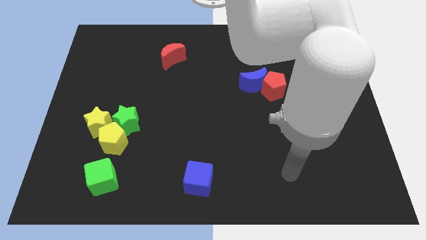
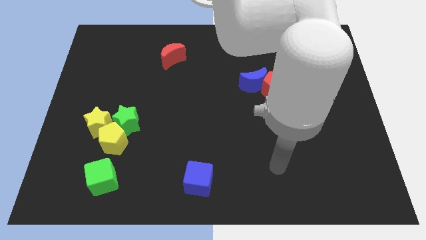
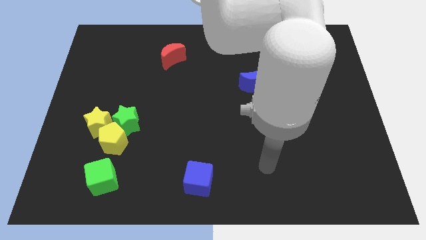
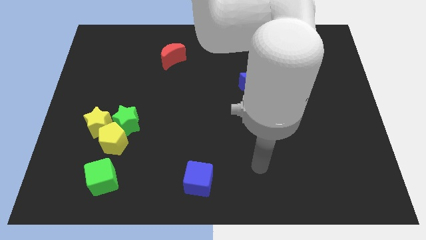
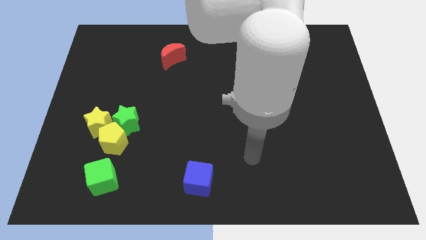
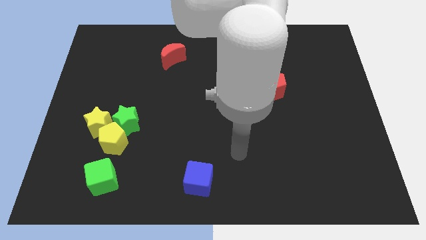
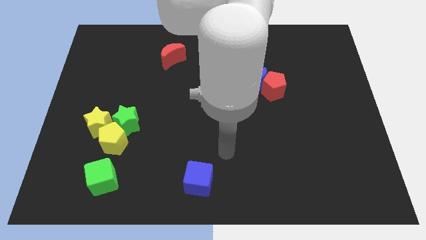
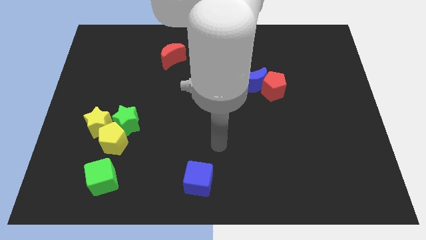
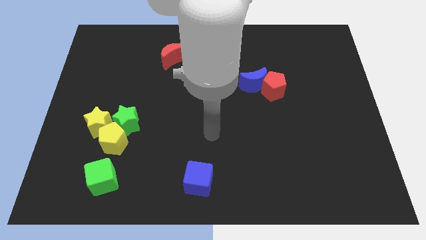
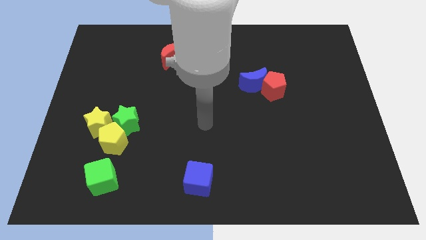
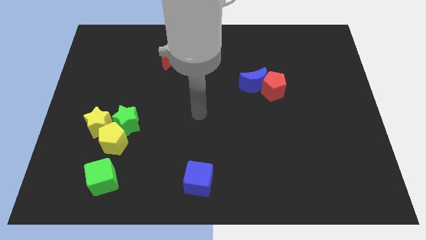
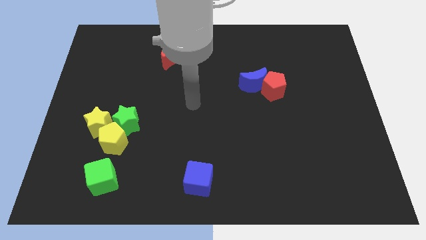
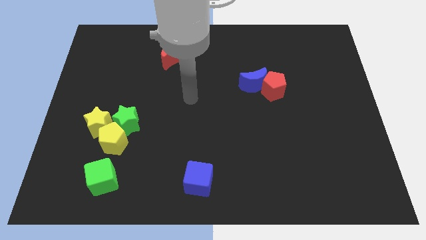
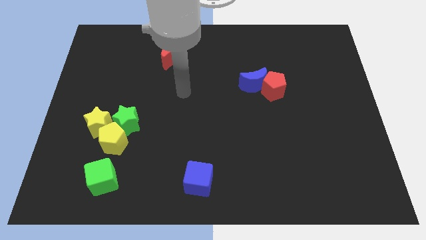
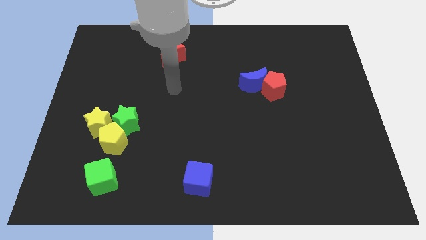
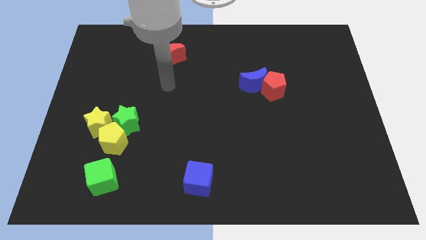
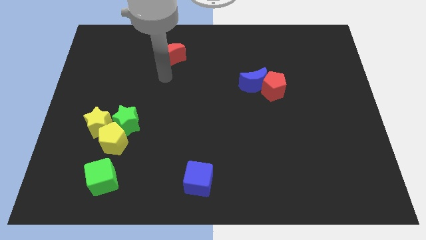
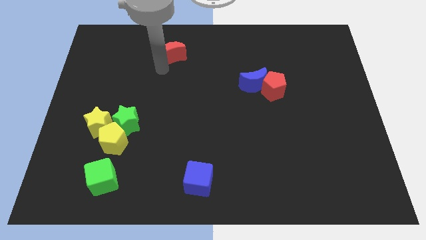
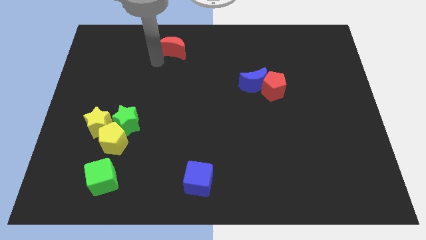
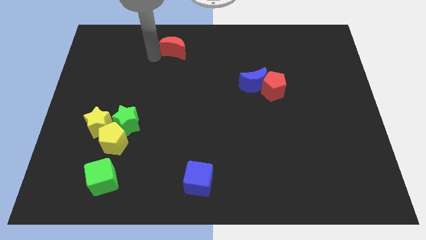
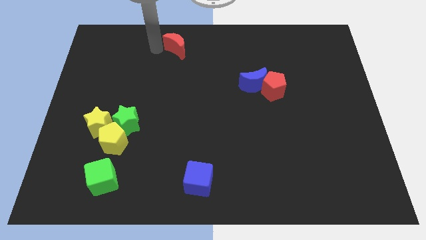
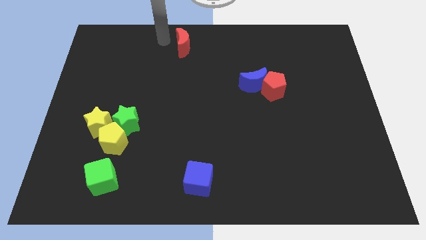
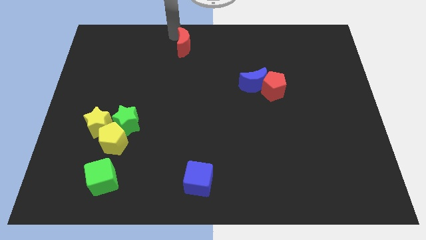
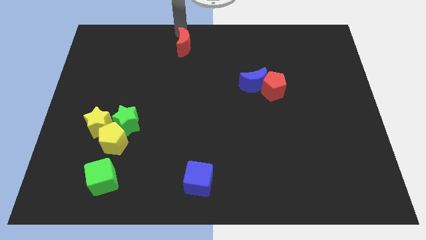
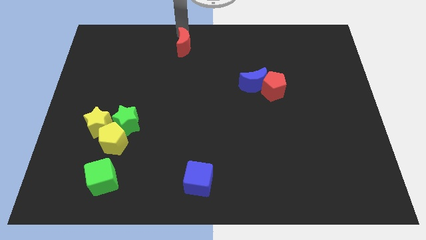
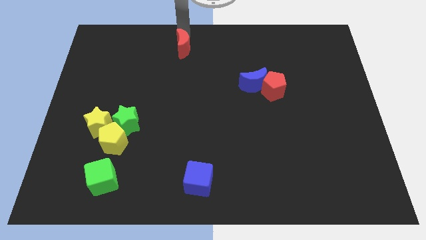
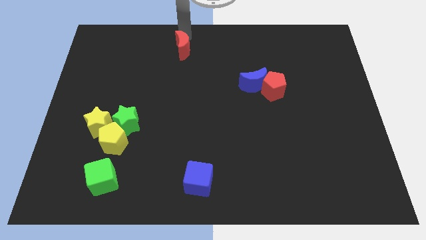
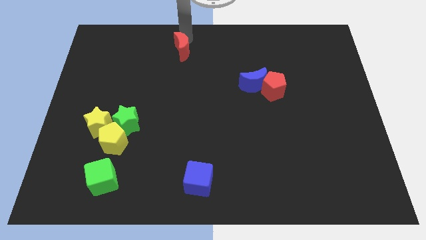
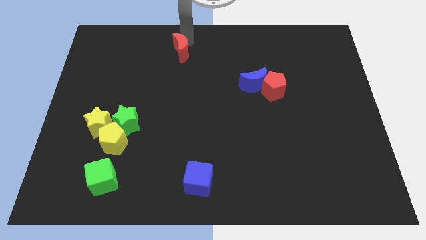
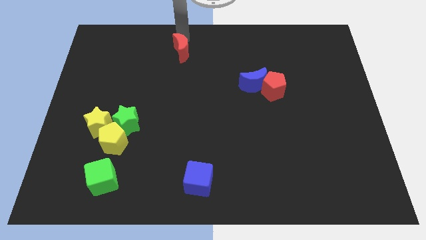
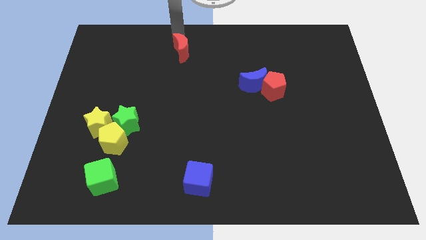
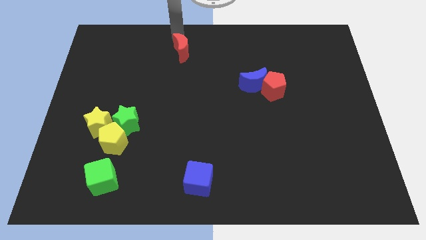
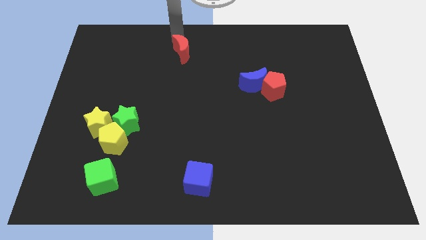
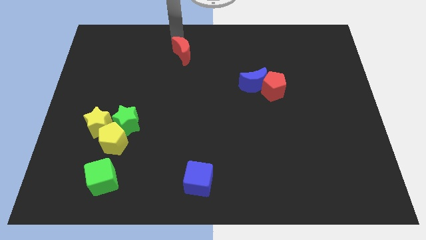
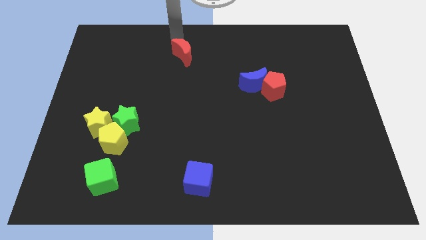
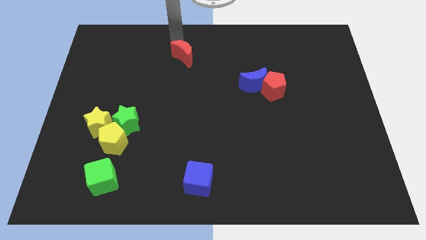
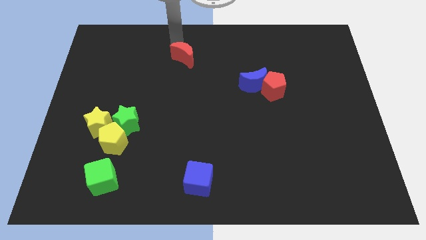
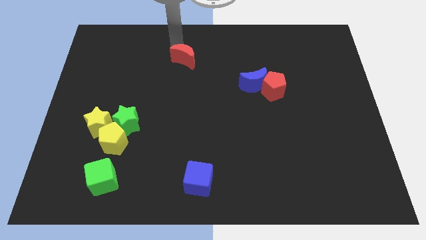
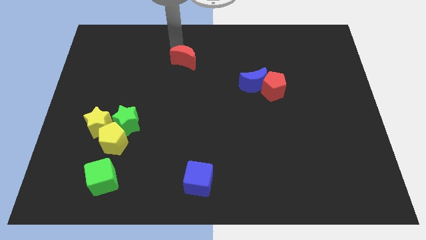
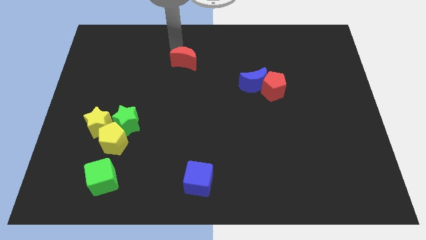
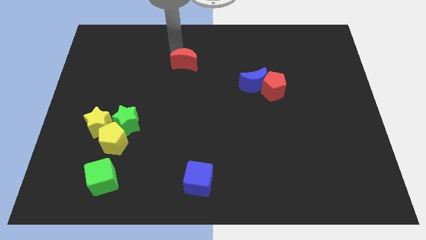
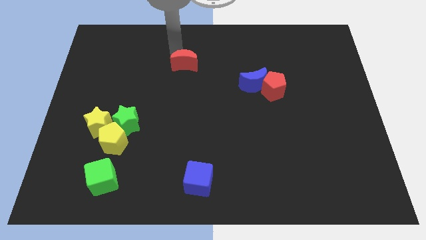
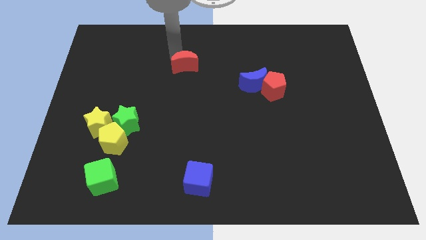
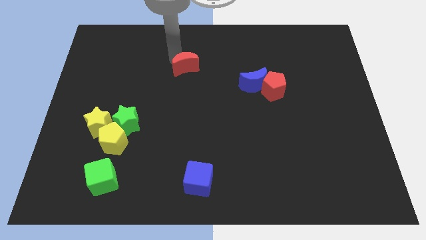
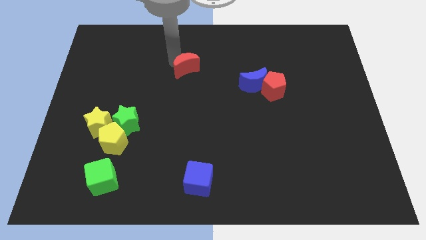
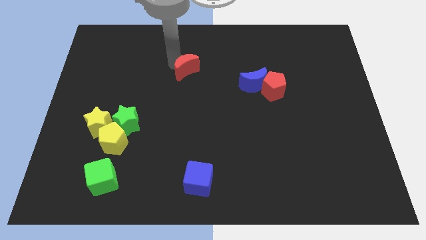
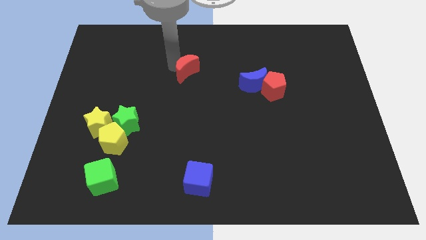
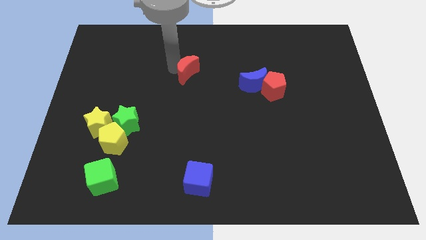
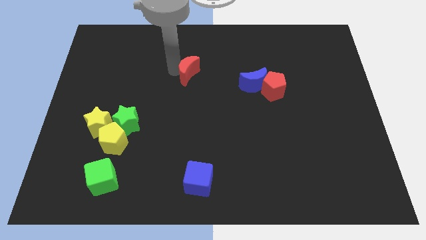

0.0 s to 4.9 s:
slide the red moon a bit down and then right

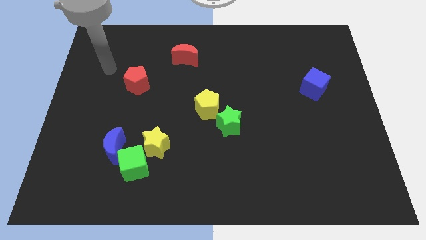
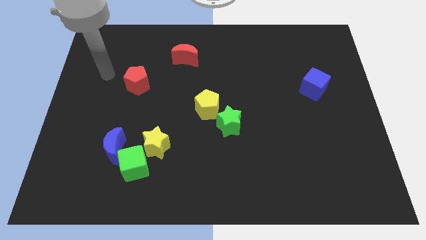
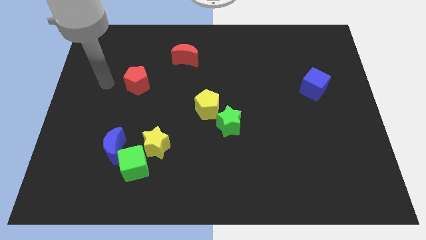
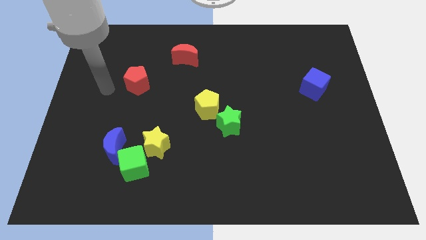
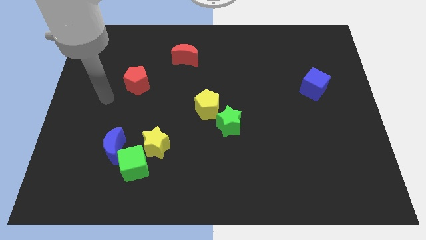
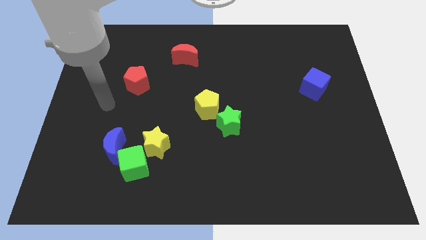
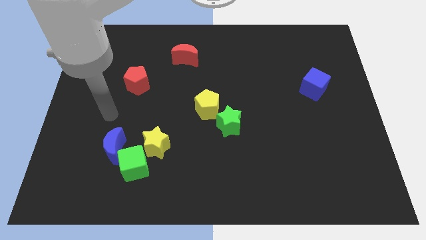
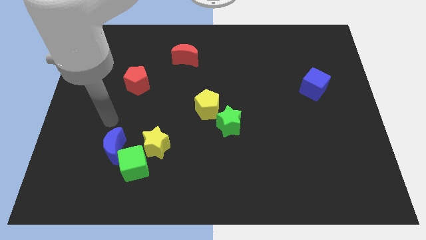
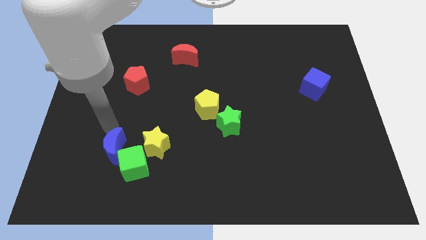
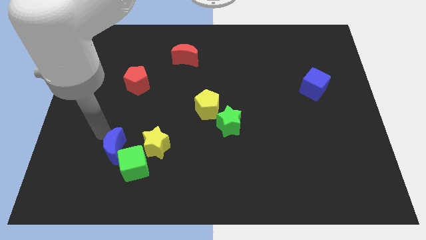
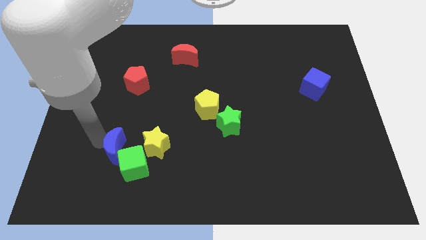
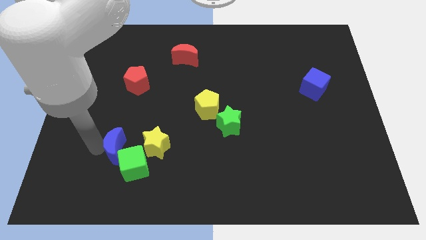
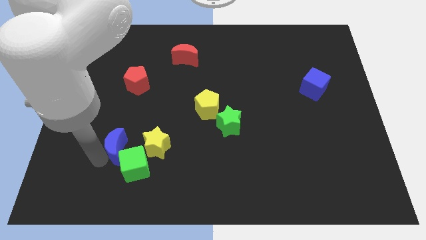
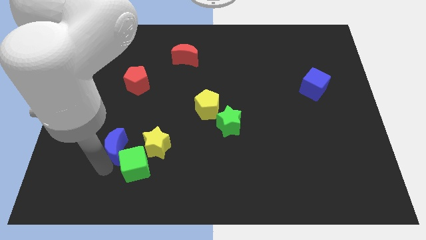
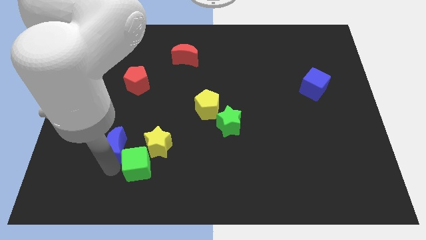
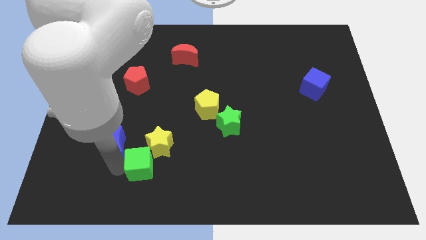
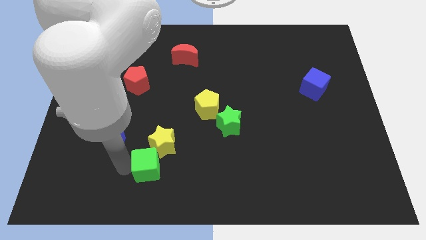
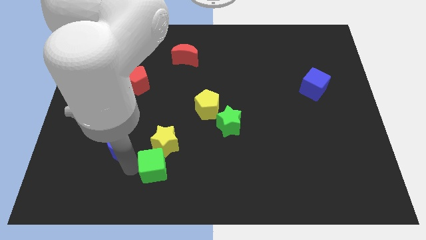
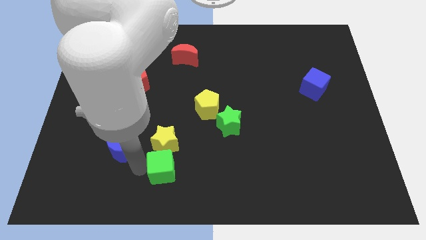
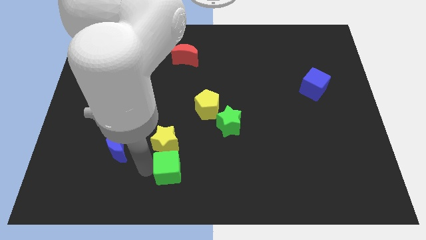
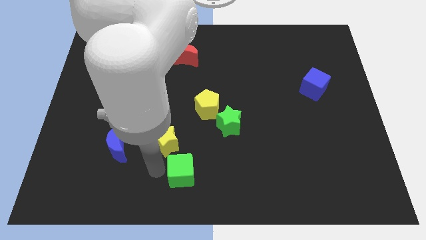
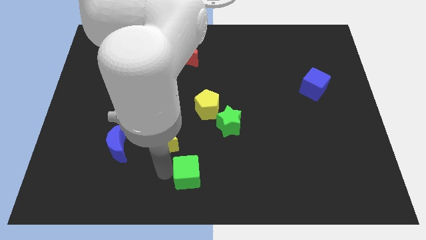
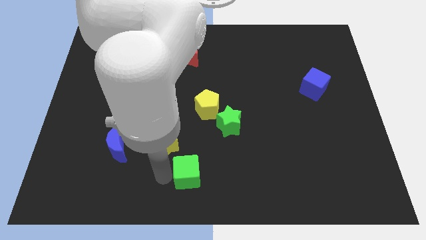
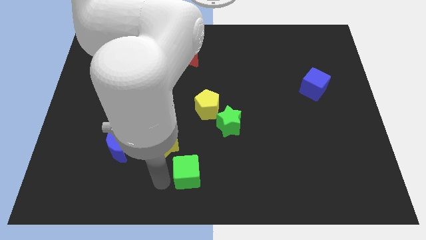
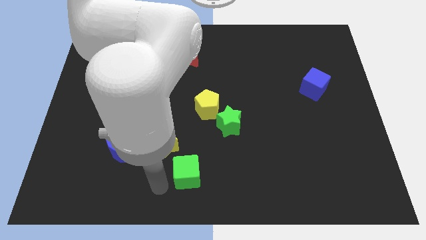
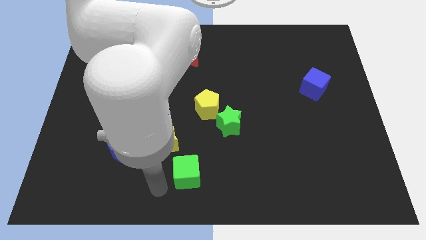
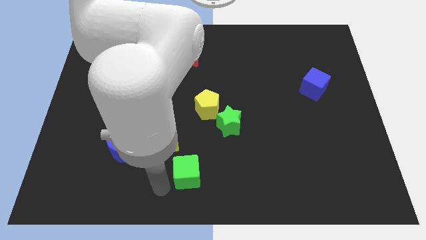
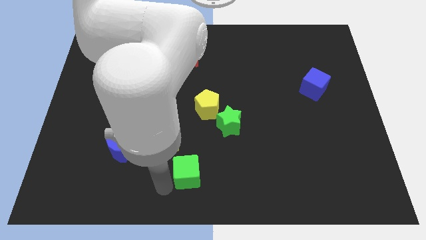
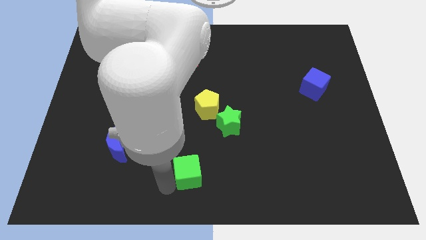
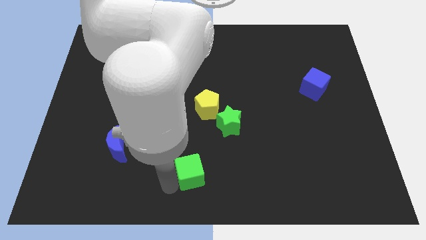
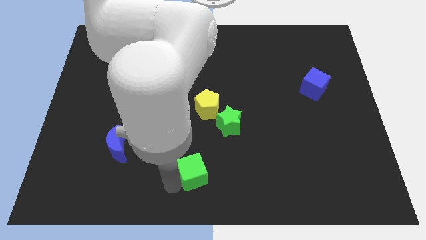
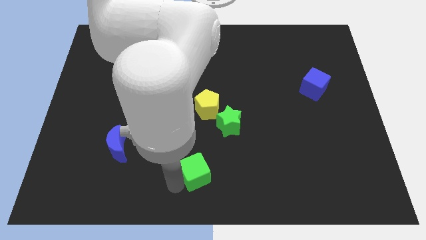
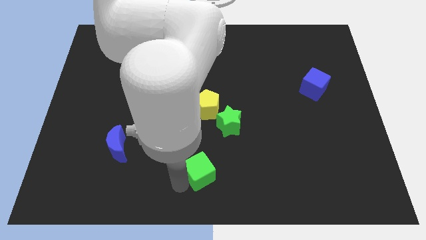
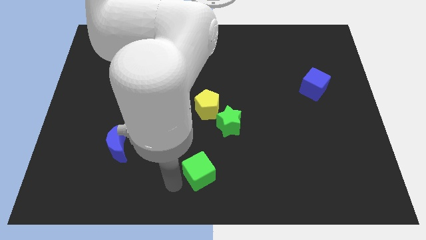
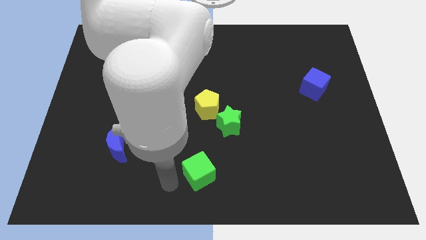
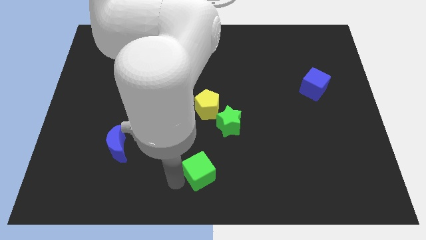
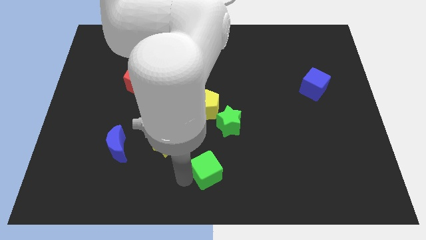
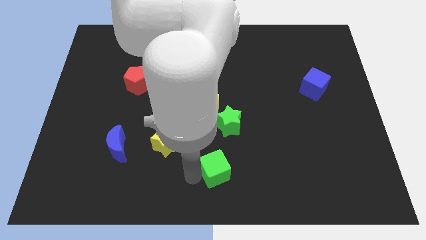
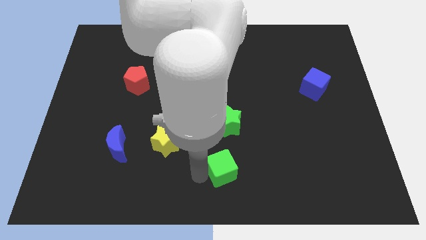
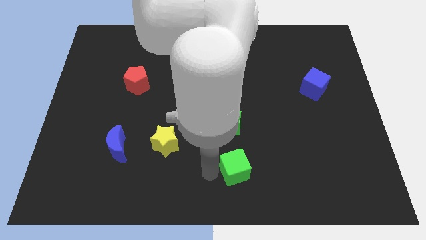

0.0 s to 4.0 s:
push the green cube right
